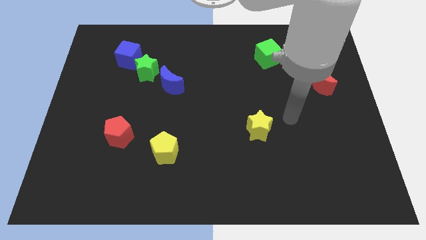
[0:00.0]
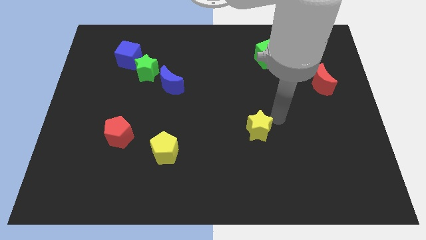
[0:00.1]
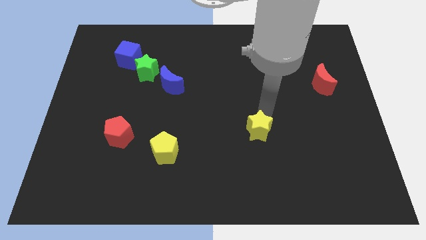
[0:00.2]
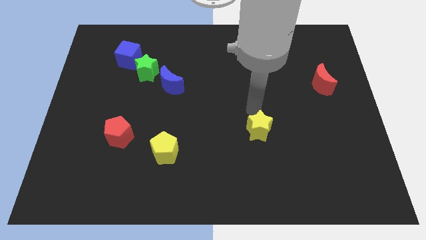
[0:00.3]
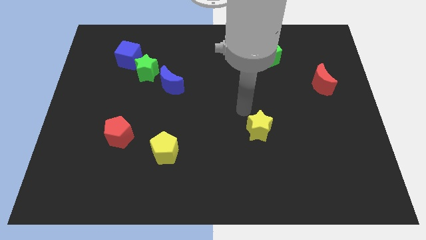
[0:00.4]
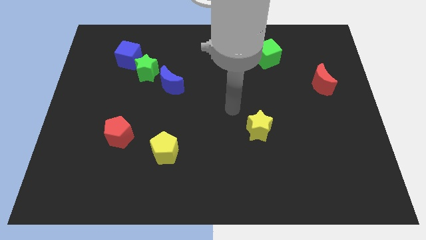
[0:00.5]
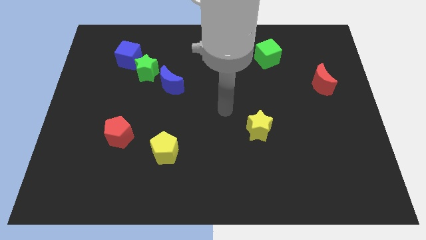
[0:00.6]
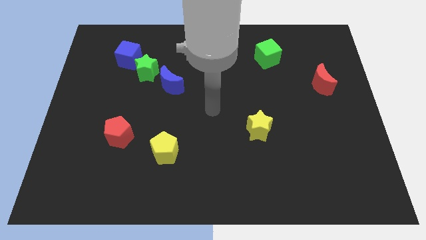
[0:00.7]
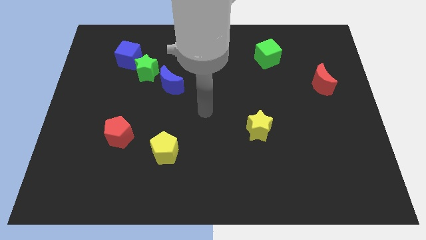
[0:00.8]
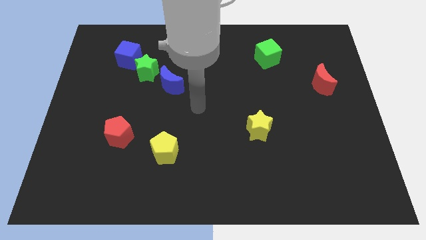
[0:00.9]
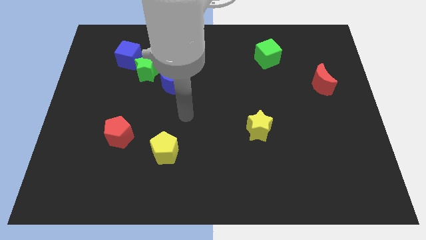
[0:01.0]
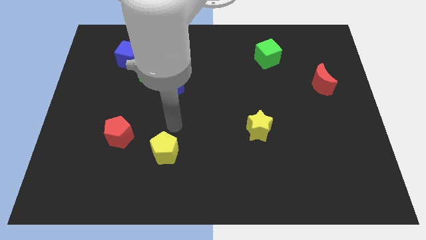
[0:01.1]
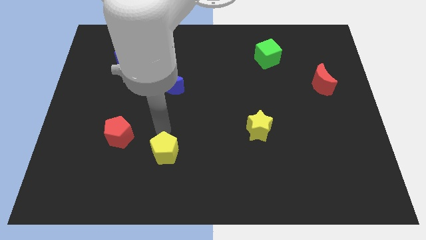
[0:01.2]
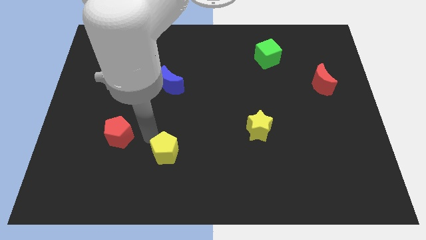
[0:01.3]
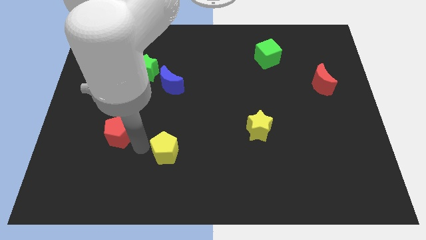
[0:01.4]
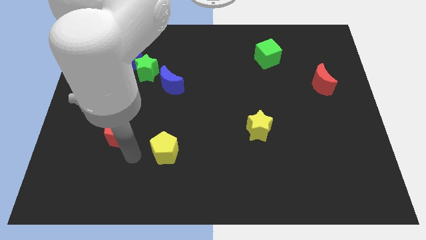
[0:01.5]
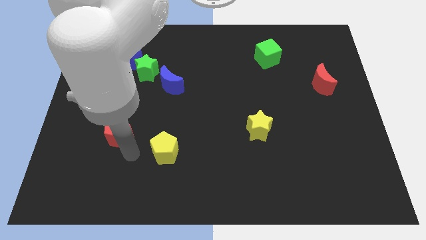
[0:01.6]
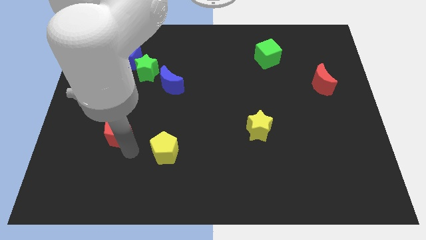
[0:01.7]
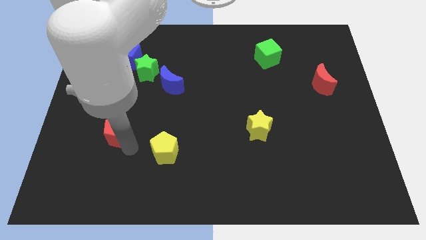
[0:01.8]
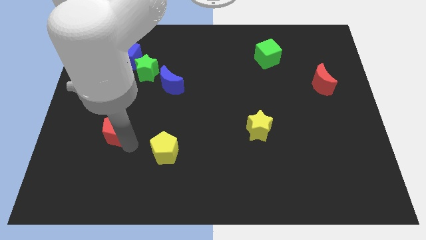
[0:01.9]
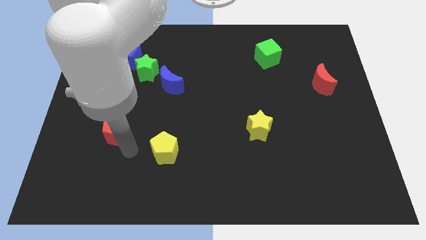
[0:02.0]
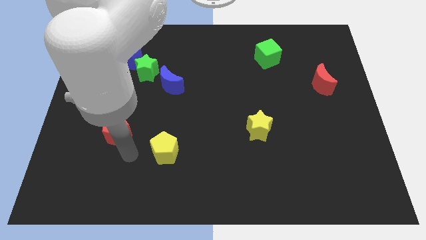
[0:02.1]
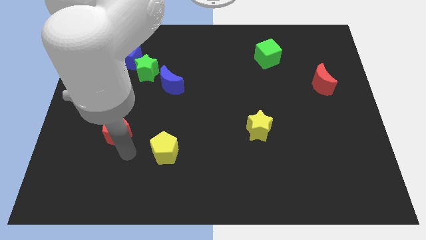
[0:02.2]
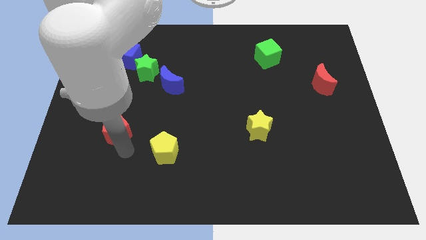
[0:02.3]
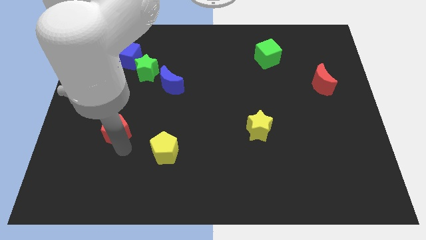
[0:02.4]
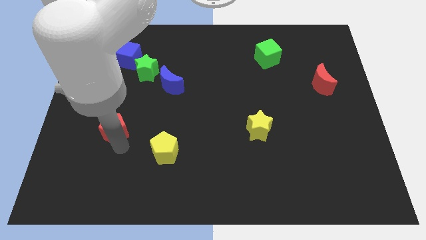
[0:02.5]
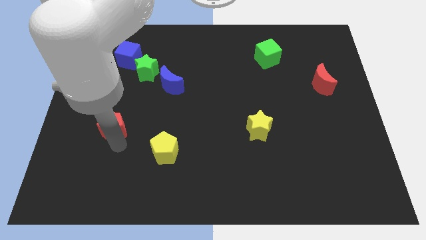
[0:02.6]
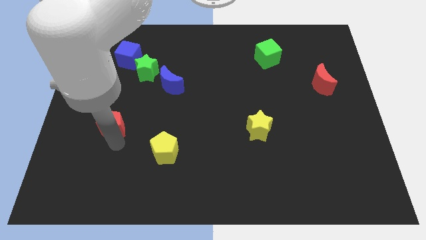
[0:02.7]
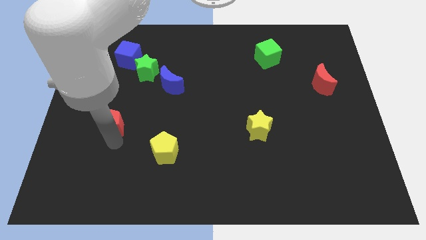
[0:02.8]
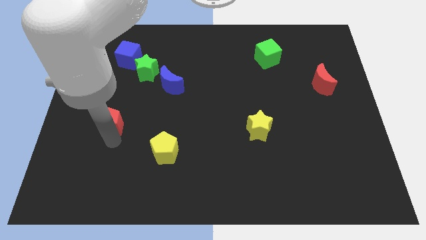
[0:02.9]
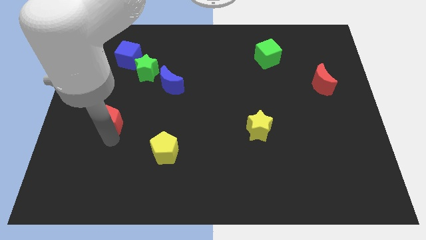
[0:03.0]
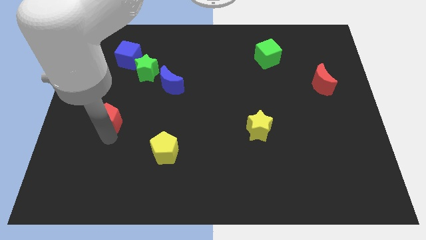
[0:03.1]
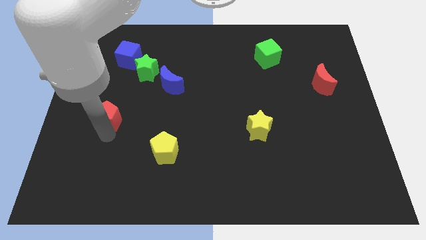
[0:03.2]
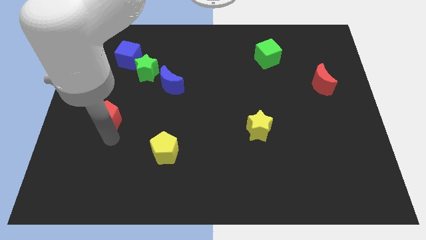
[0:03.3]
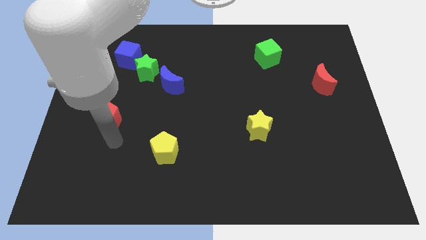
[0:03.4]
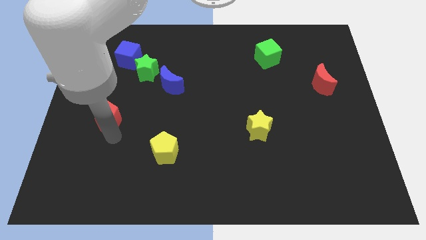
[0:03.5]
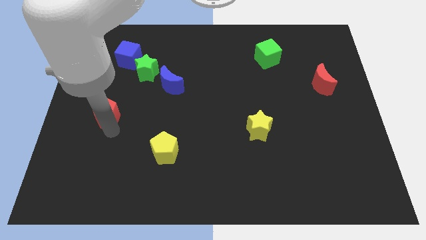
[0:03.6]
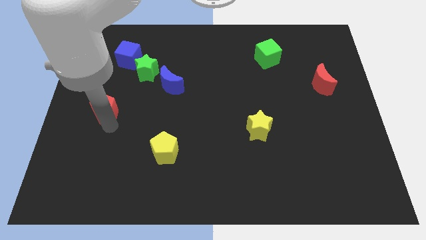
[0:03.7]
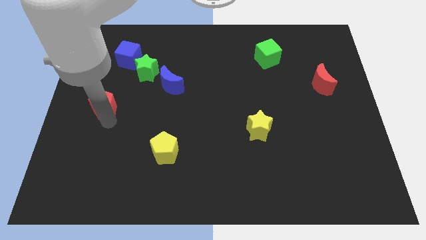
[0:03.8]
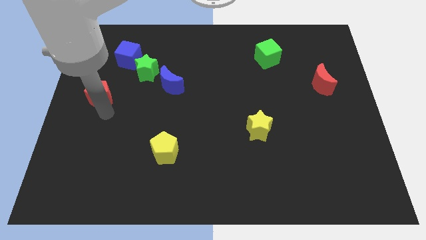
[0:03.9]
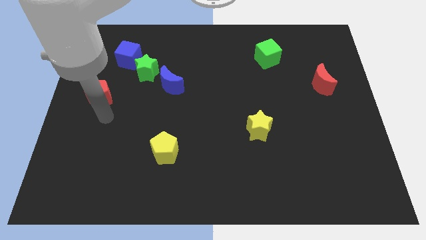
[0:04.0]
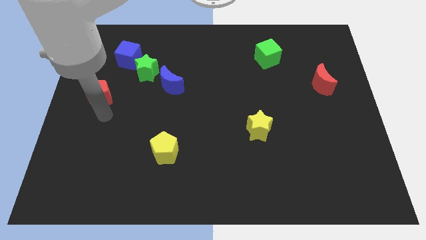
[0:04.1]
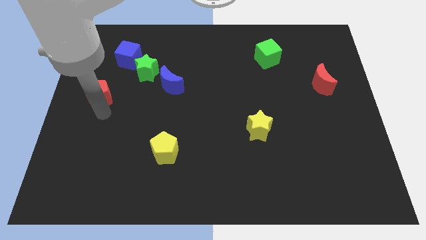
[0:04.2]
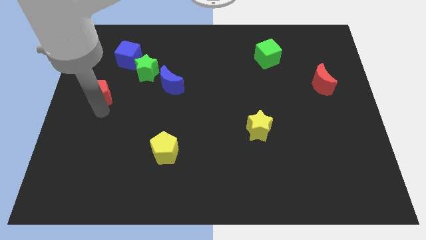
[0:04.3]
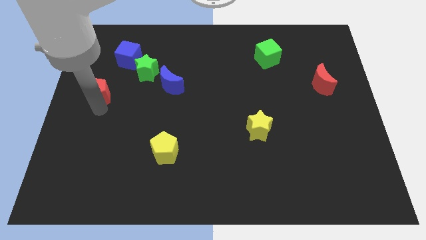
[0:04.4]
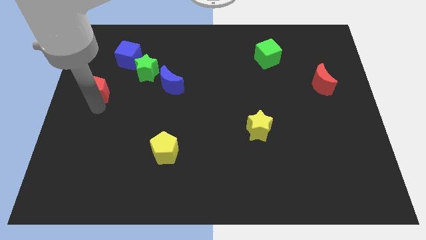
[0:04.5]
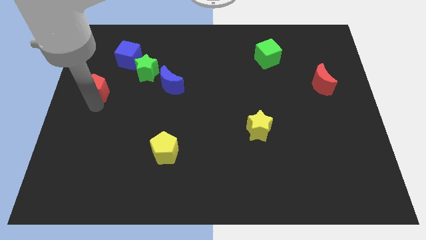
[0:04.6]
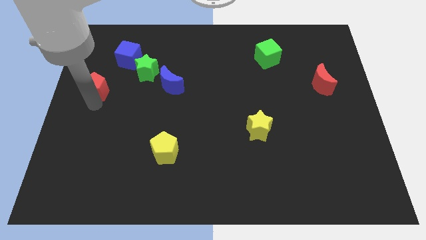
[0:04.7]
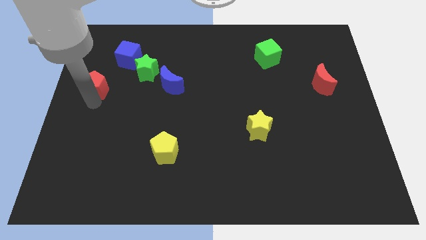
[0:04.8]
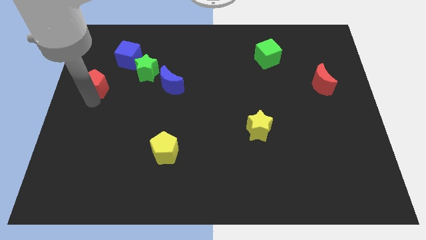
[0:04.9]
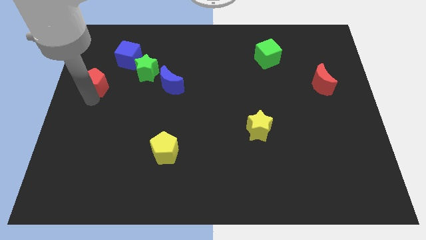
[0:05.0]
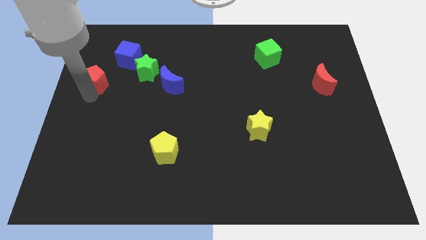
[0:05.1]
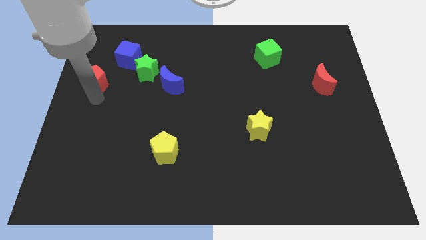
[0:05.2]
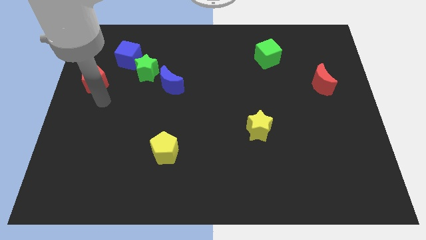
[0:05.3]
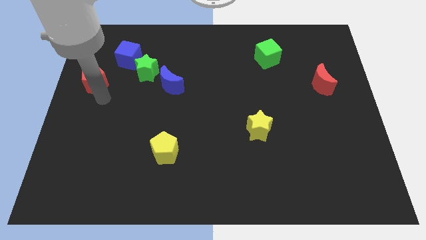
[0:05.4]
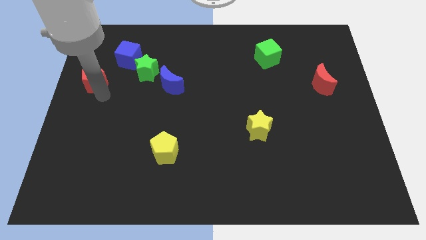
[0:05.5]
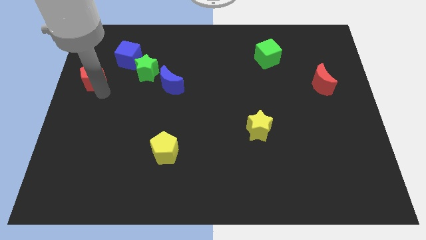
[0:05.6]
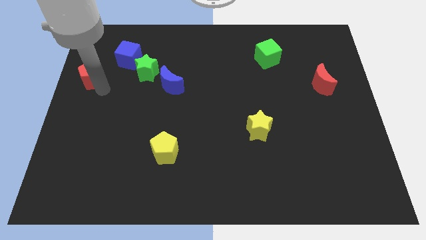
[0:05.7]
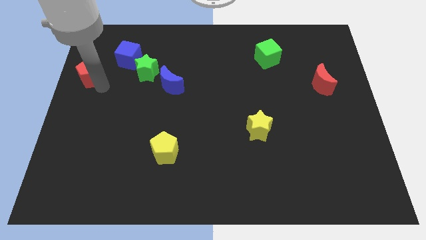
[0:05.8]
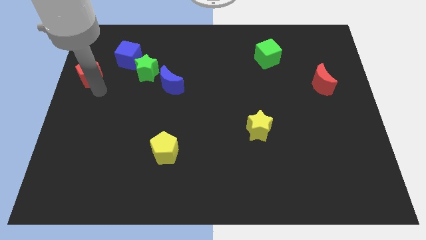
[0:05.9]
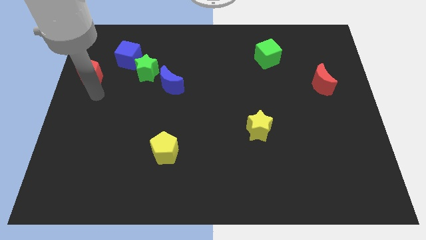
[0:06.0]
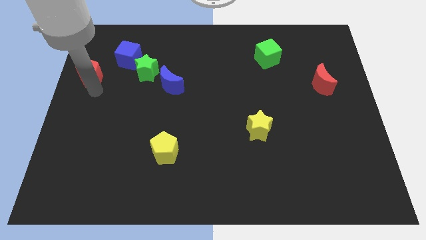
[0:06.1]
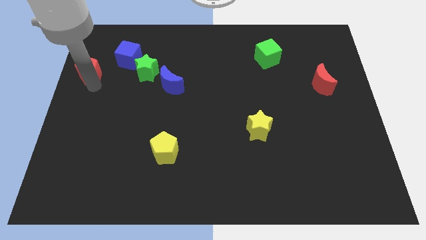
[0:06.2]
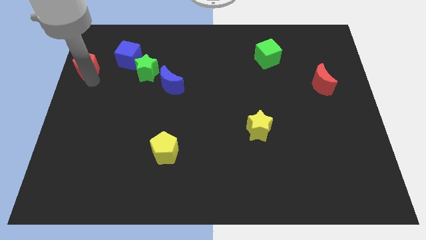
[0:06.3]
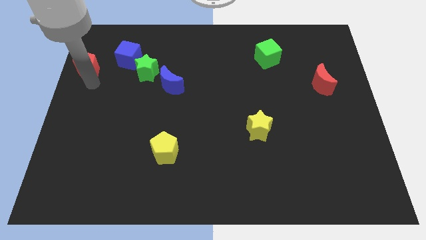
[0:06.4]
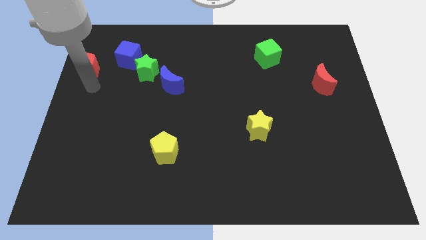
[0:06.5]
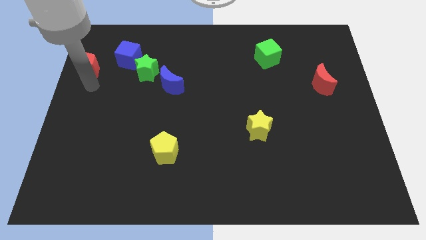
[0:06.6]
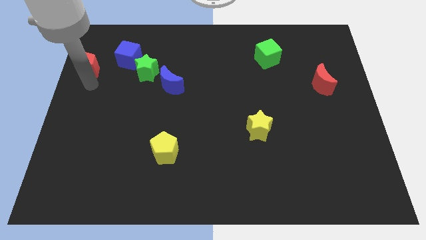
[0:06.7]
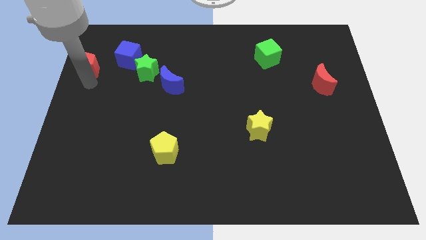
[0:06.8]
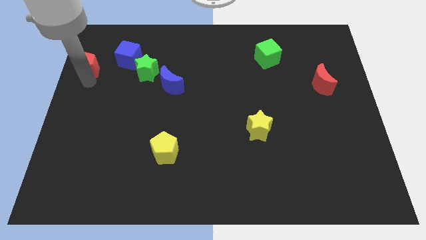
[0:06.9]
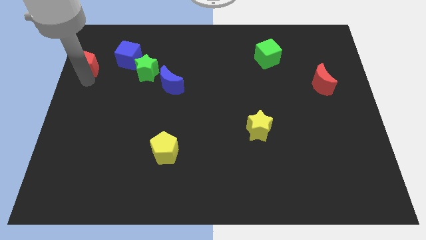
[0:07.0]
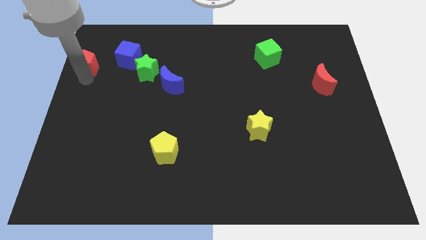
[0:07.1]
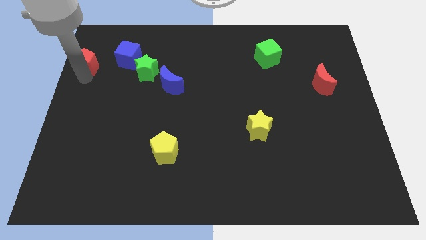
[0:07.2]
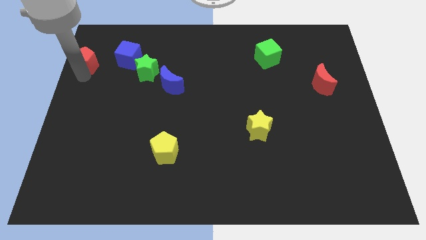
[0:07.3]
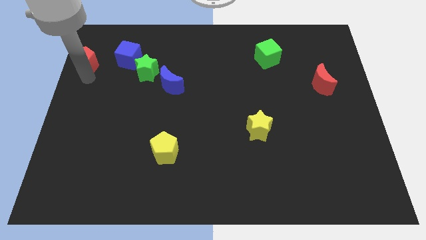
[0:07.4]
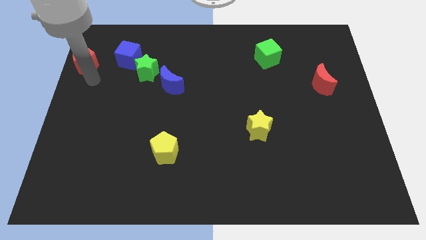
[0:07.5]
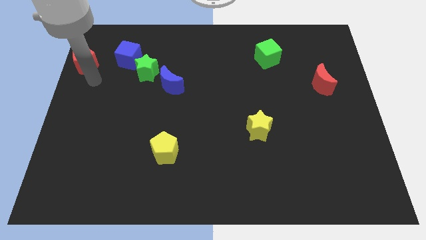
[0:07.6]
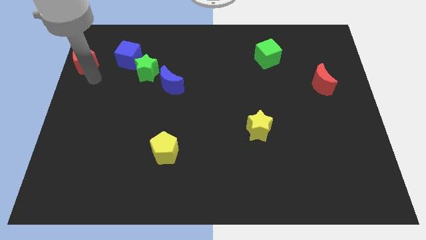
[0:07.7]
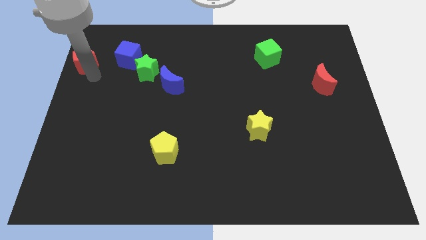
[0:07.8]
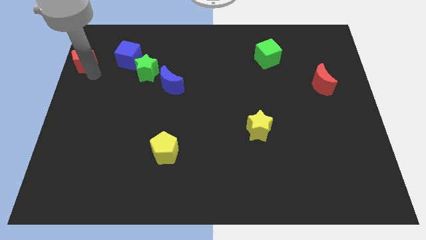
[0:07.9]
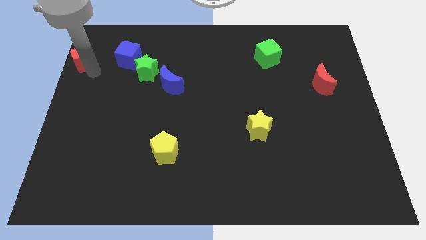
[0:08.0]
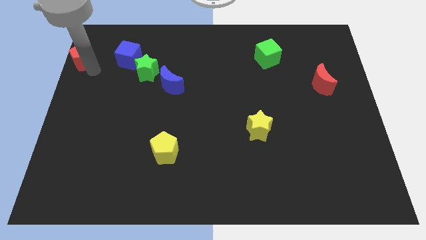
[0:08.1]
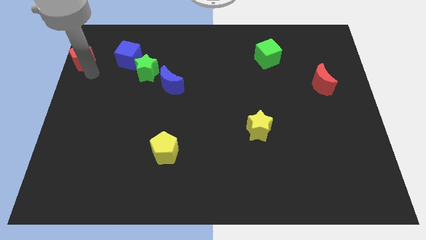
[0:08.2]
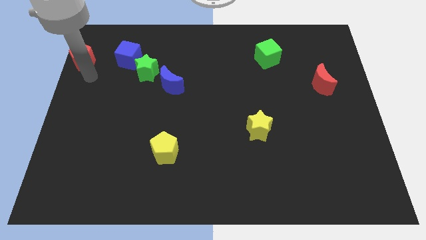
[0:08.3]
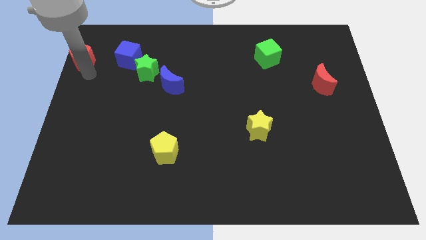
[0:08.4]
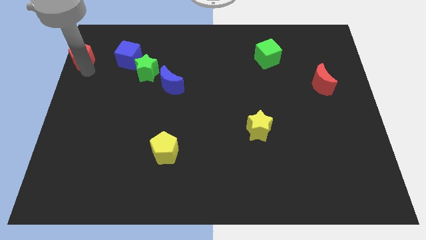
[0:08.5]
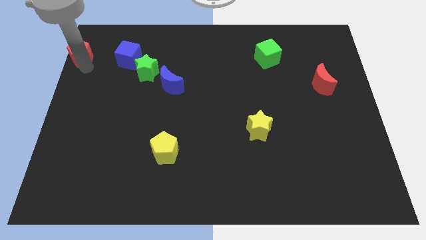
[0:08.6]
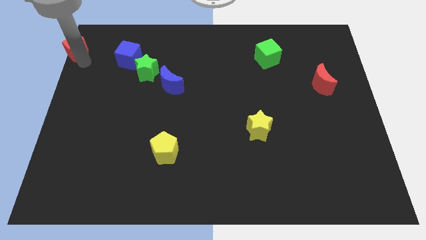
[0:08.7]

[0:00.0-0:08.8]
slide the red pentagon to the top left of the board
